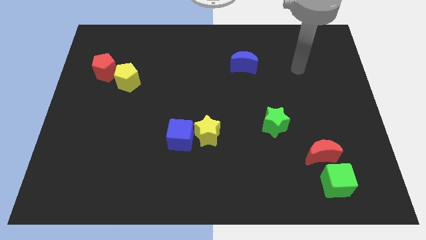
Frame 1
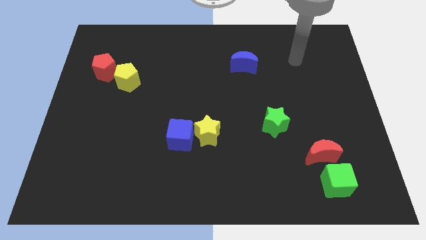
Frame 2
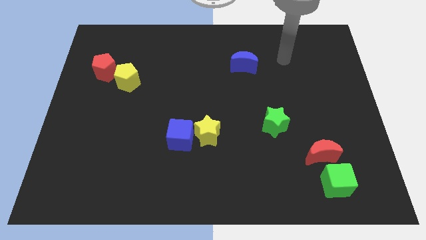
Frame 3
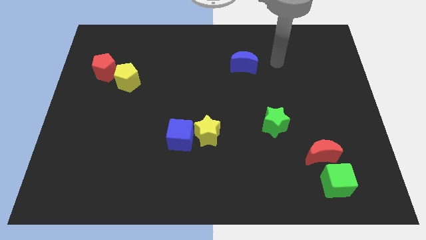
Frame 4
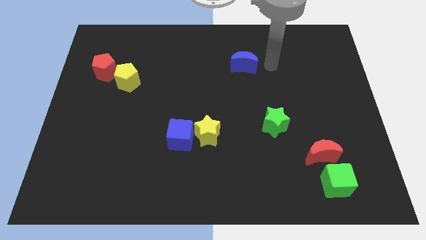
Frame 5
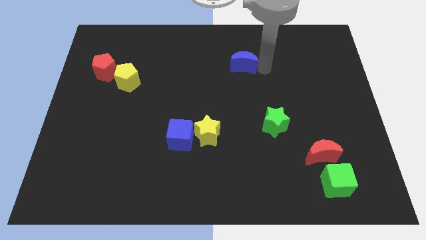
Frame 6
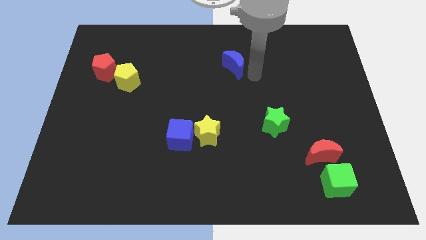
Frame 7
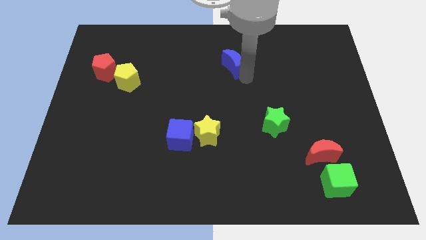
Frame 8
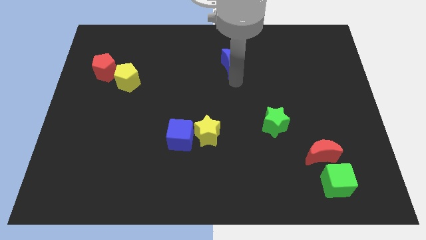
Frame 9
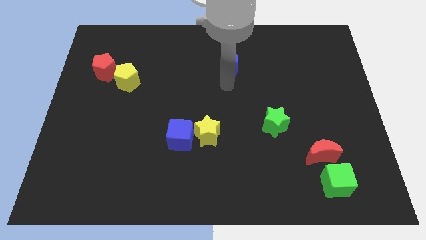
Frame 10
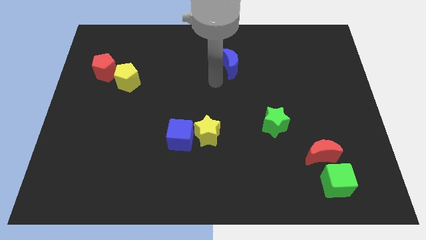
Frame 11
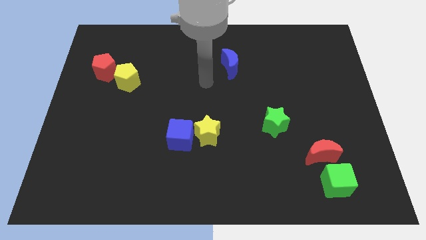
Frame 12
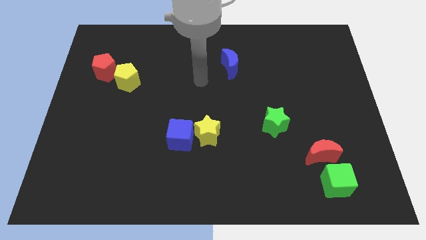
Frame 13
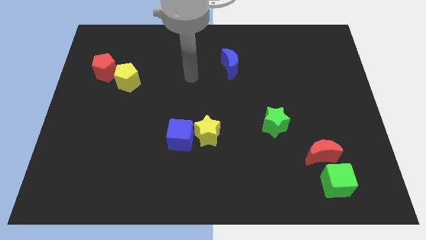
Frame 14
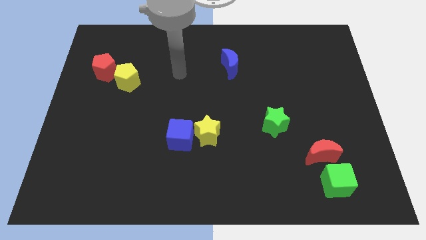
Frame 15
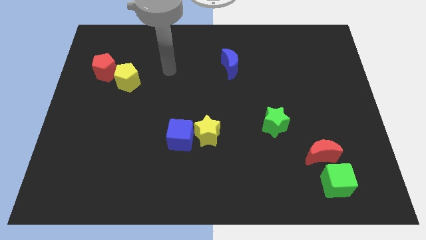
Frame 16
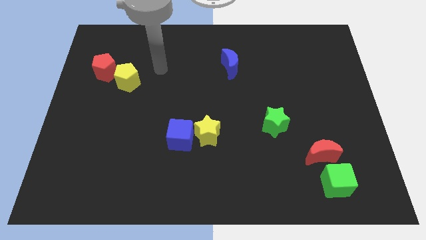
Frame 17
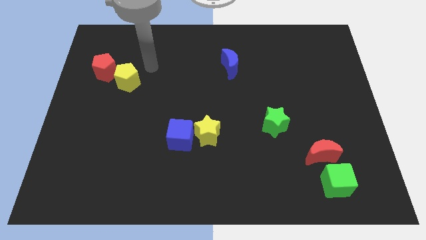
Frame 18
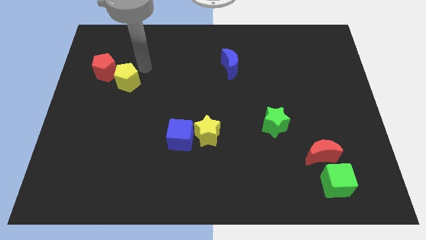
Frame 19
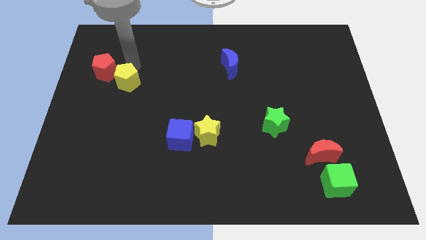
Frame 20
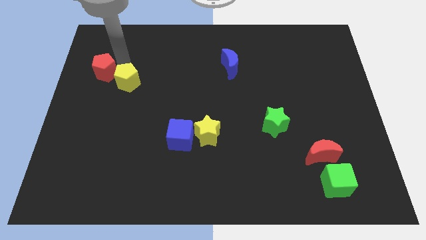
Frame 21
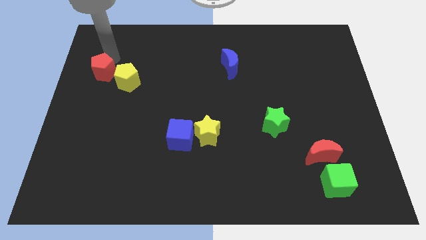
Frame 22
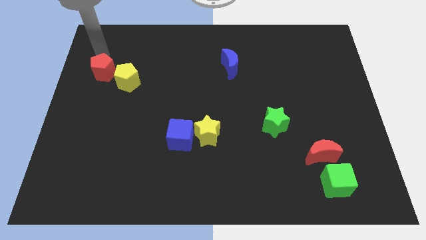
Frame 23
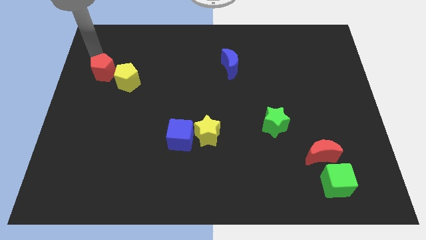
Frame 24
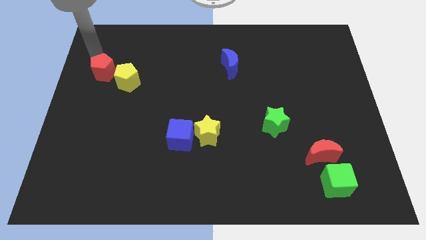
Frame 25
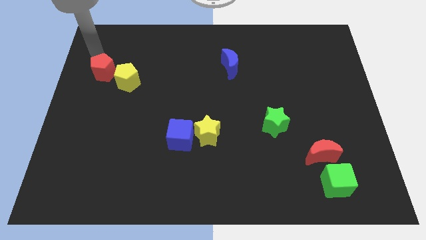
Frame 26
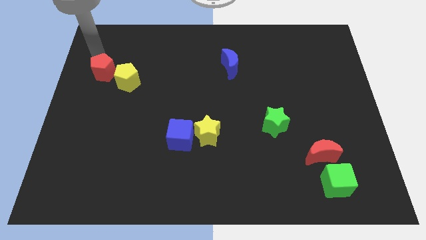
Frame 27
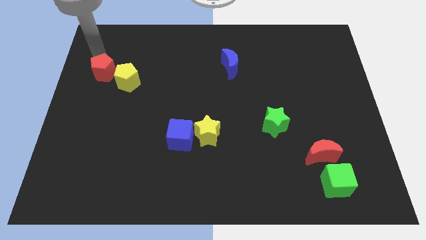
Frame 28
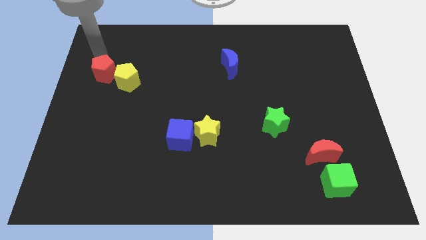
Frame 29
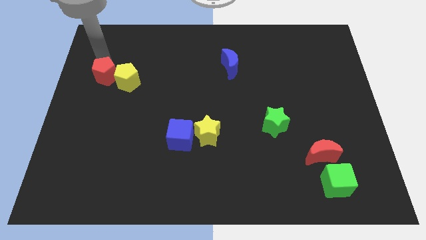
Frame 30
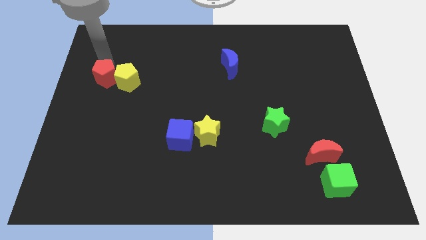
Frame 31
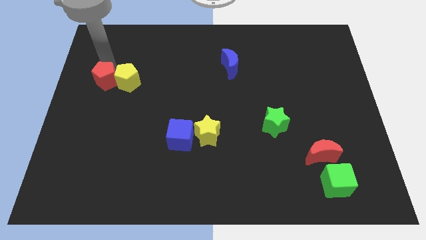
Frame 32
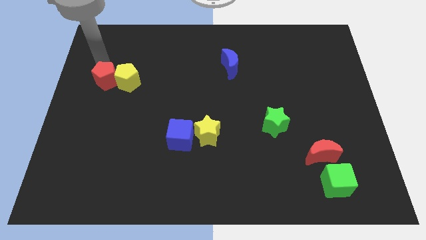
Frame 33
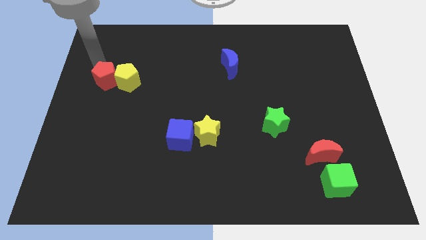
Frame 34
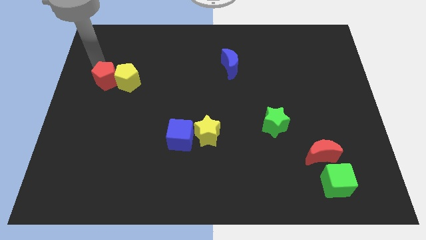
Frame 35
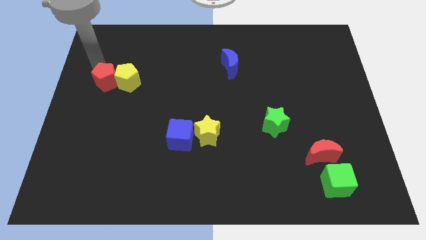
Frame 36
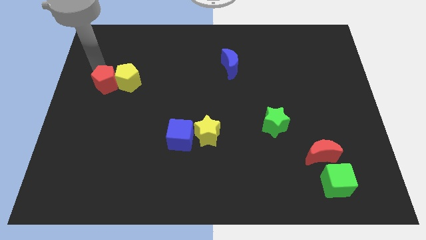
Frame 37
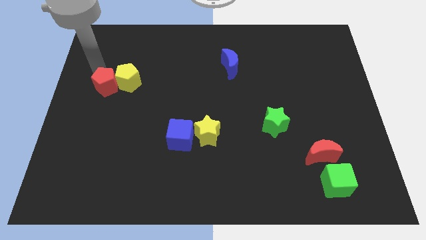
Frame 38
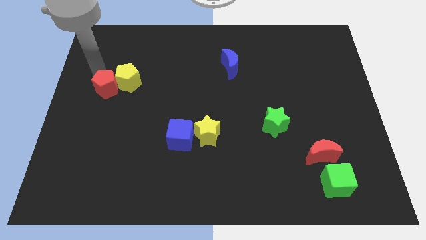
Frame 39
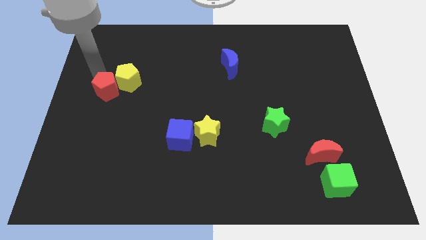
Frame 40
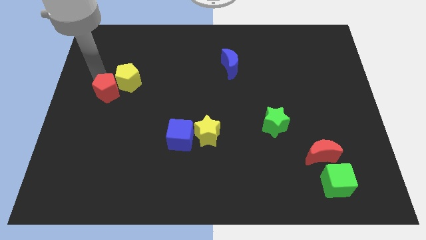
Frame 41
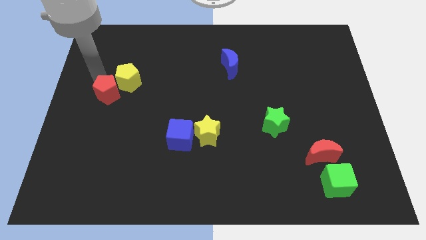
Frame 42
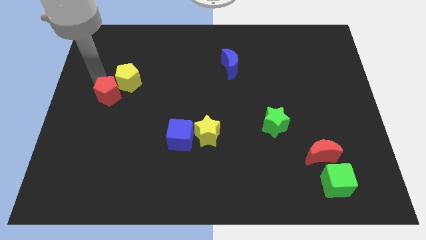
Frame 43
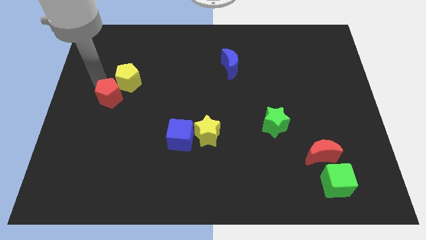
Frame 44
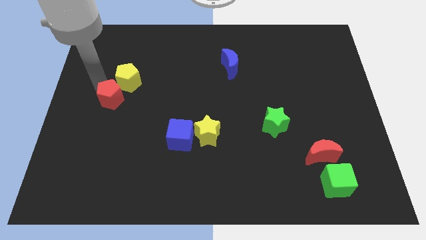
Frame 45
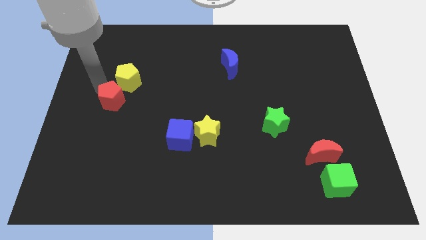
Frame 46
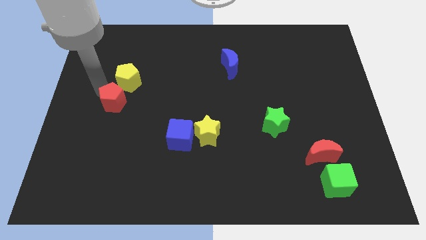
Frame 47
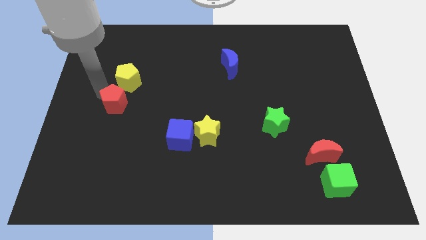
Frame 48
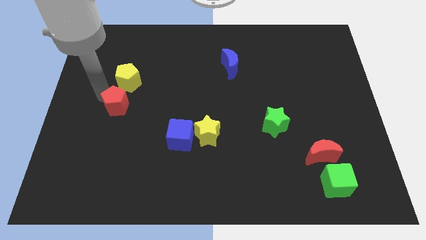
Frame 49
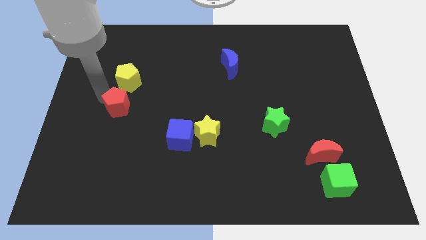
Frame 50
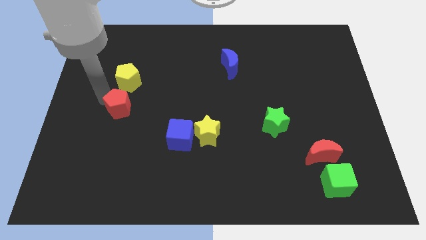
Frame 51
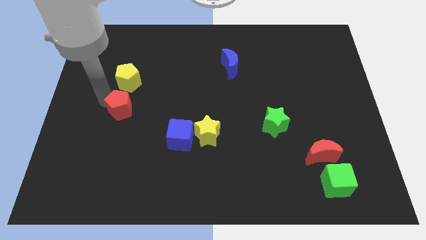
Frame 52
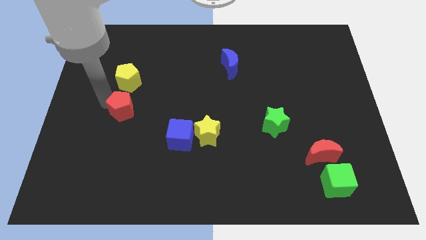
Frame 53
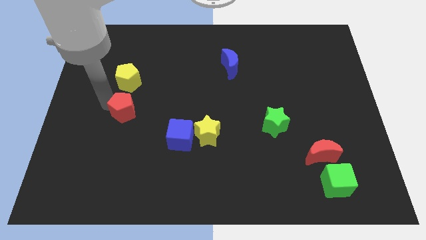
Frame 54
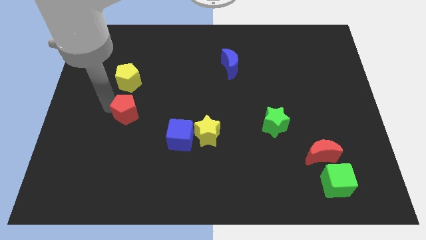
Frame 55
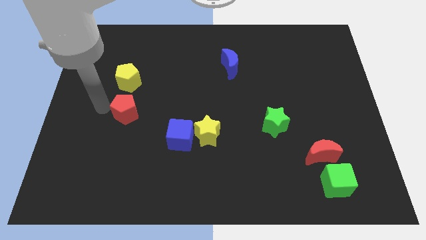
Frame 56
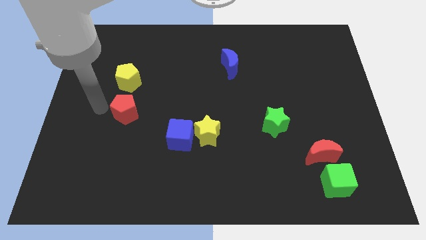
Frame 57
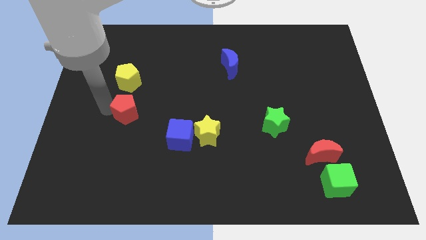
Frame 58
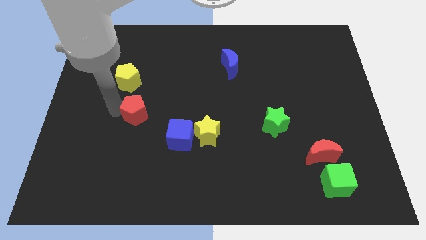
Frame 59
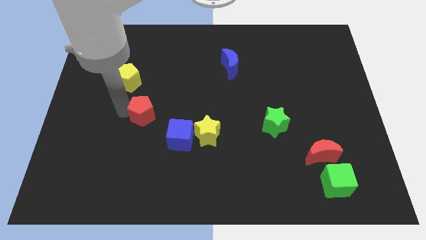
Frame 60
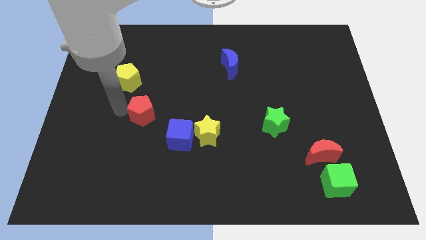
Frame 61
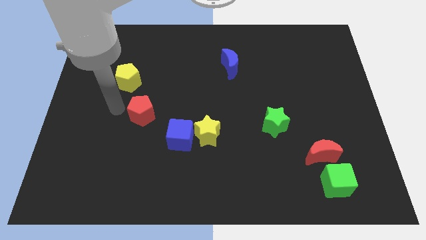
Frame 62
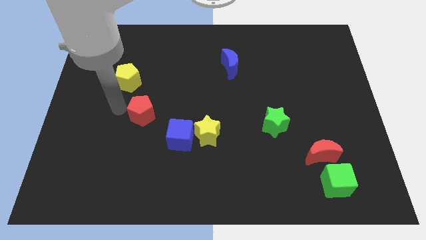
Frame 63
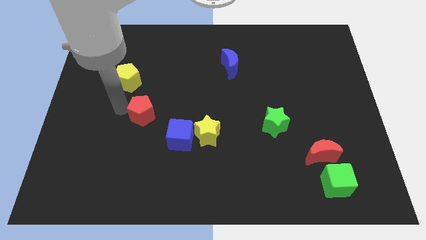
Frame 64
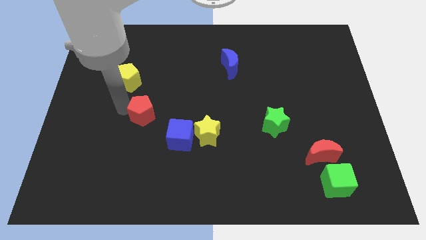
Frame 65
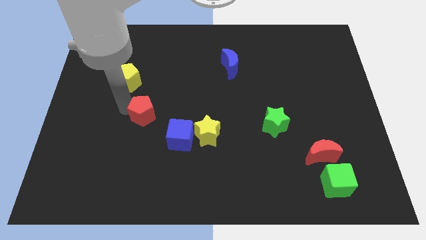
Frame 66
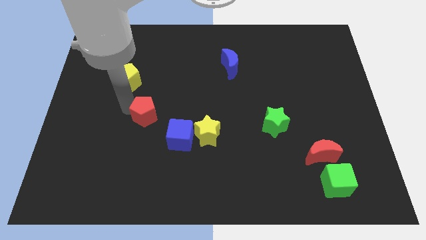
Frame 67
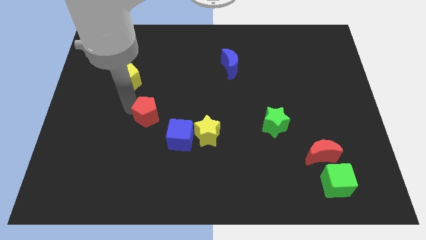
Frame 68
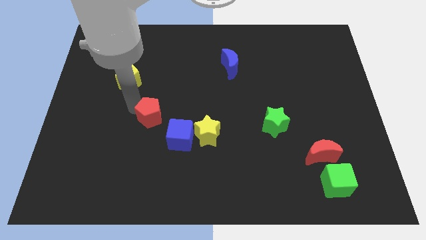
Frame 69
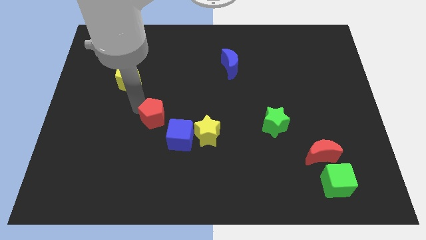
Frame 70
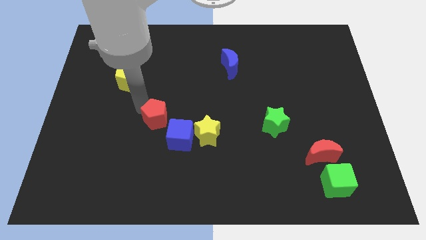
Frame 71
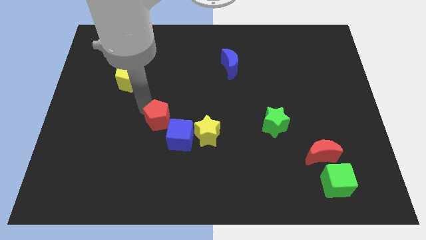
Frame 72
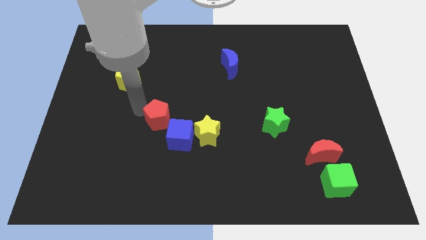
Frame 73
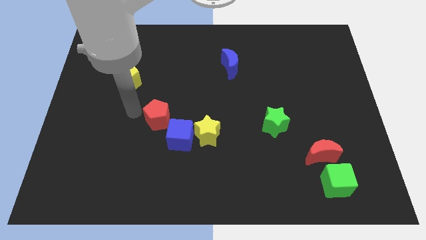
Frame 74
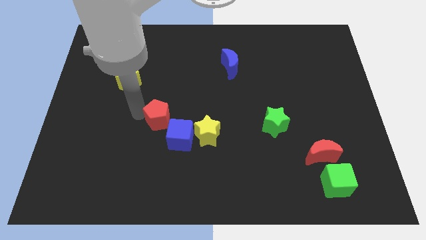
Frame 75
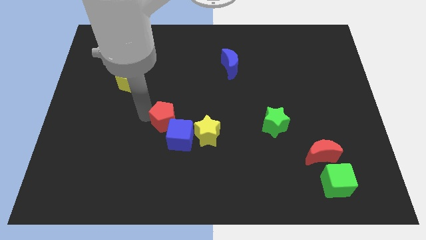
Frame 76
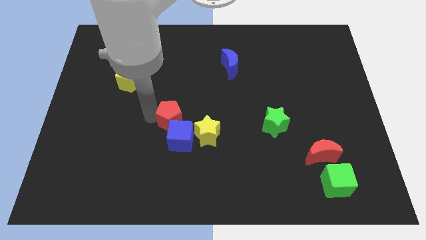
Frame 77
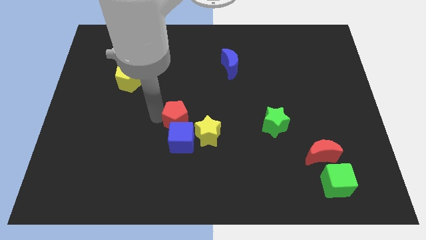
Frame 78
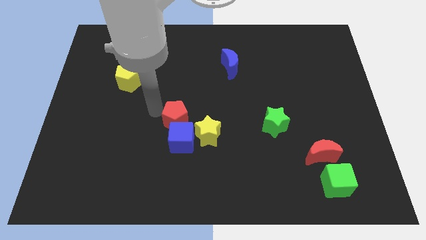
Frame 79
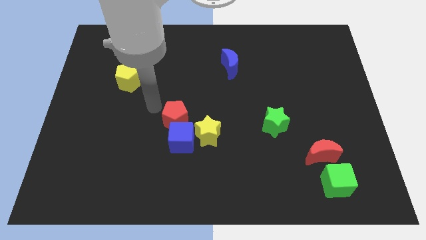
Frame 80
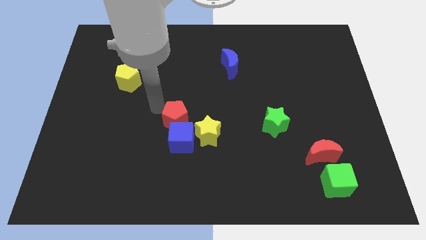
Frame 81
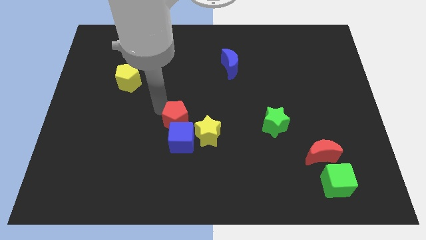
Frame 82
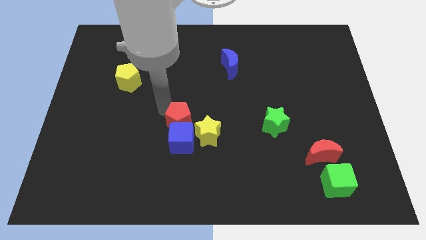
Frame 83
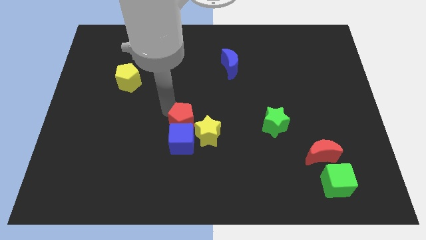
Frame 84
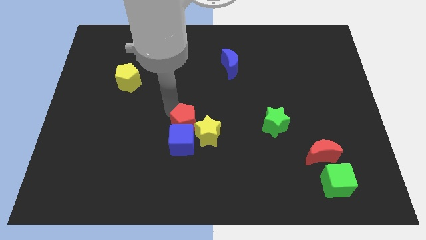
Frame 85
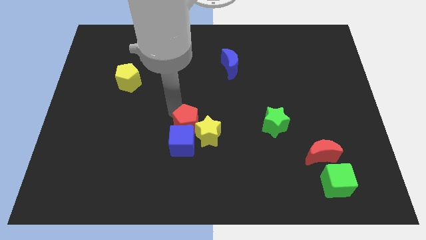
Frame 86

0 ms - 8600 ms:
put the red pentagon next to the yellow star
